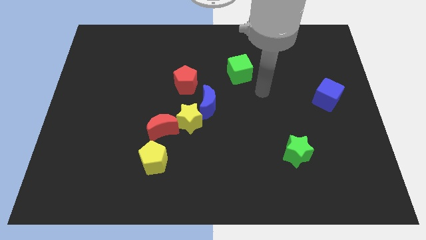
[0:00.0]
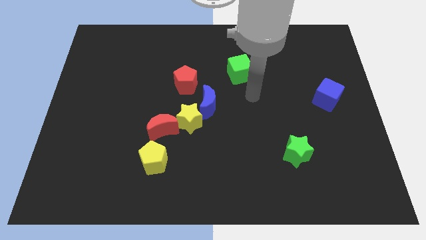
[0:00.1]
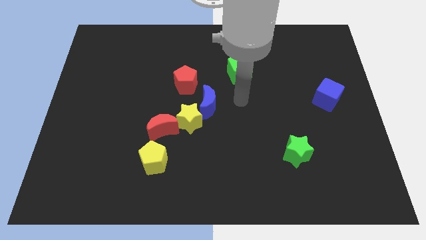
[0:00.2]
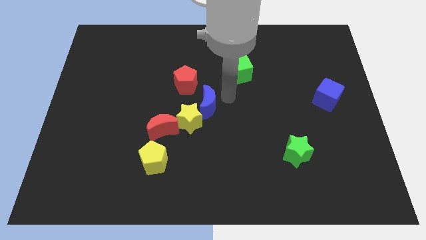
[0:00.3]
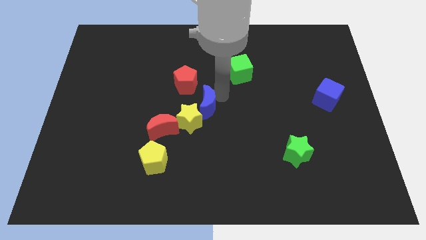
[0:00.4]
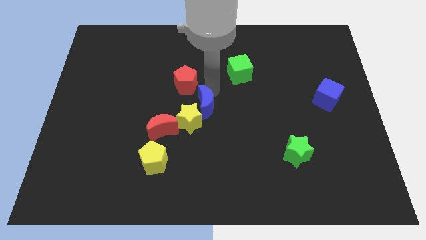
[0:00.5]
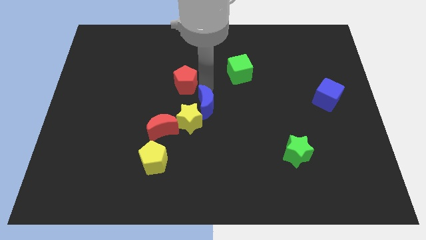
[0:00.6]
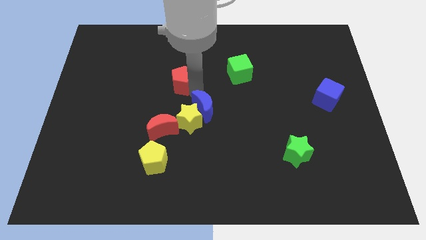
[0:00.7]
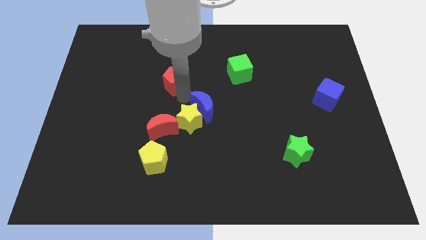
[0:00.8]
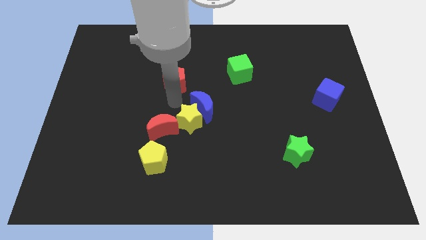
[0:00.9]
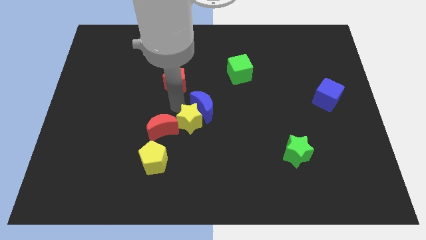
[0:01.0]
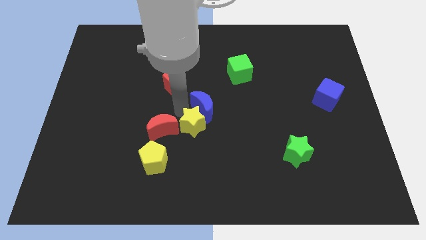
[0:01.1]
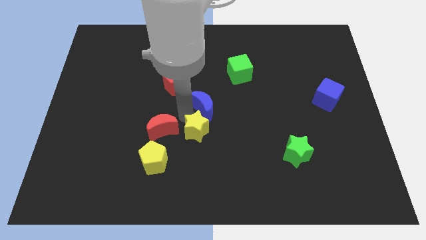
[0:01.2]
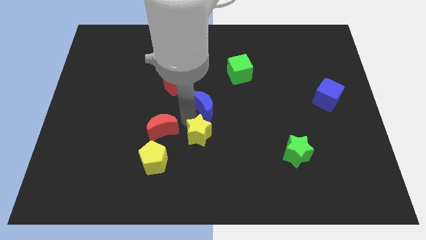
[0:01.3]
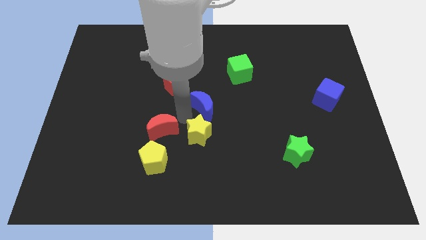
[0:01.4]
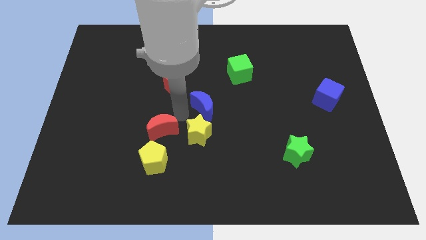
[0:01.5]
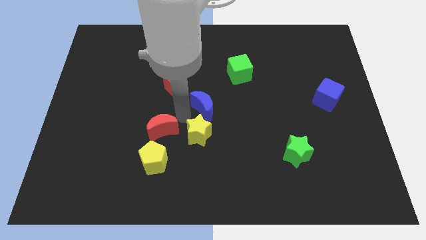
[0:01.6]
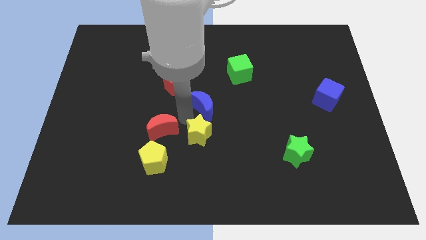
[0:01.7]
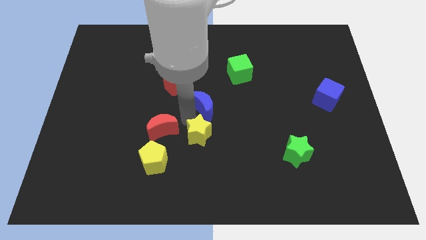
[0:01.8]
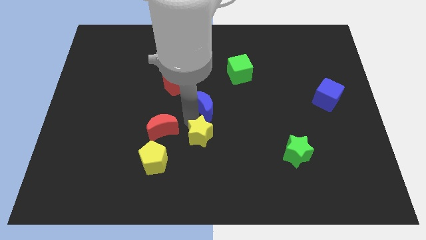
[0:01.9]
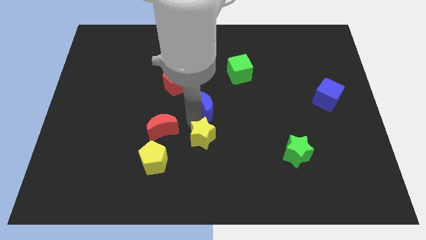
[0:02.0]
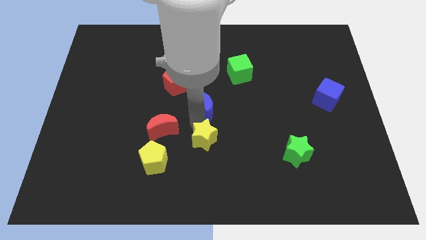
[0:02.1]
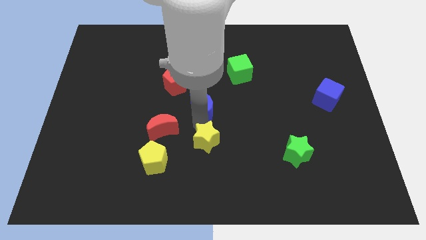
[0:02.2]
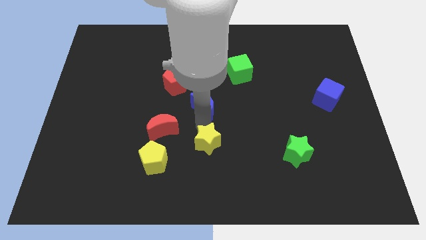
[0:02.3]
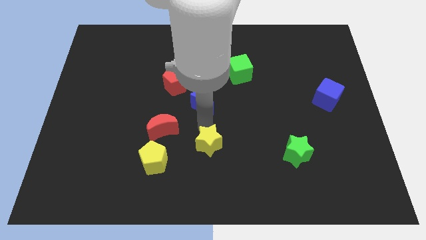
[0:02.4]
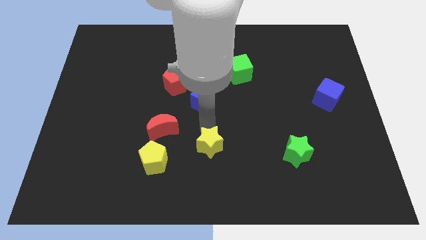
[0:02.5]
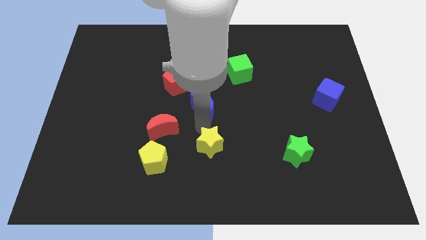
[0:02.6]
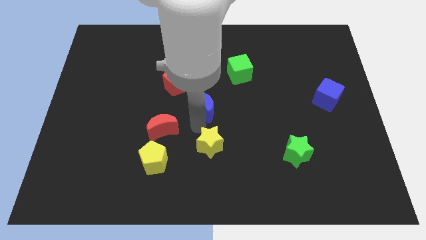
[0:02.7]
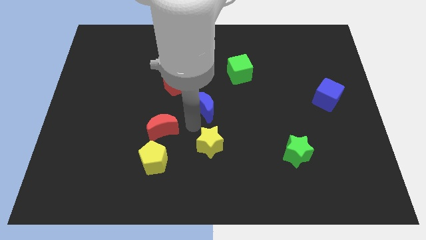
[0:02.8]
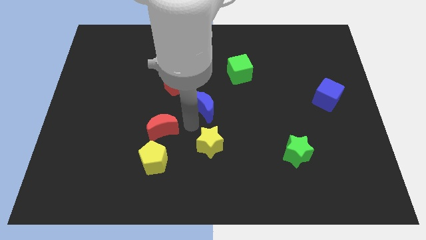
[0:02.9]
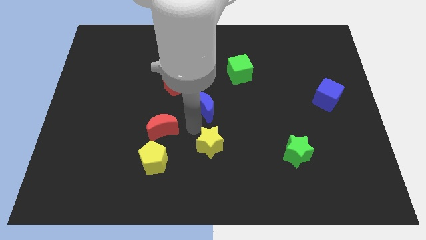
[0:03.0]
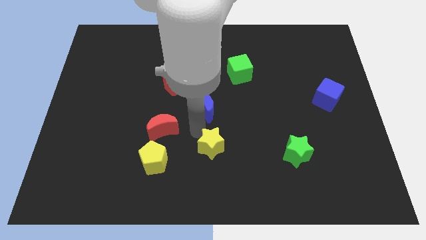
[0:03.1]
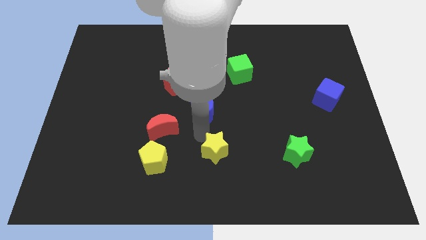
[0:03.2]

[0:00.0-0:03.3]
pull the yellow star apart from the blue moon and red moon

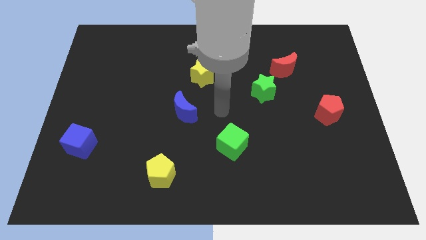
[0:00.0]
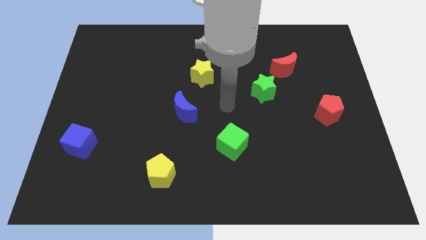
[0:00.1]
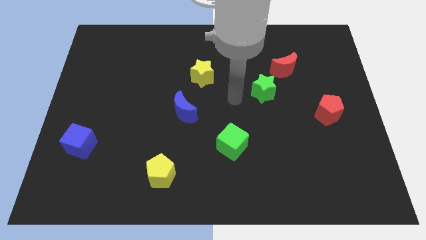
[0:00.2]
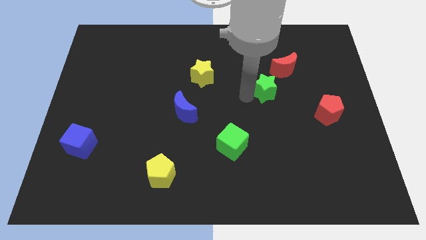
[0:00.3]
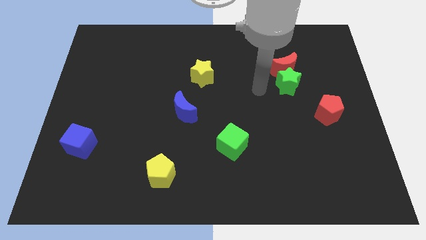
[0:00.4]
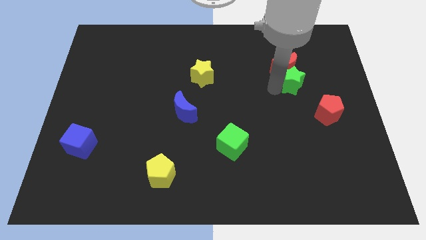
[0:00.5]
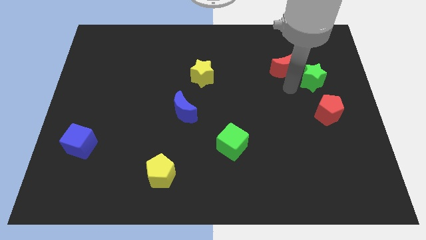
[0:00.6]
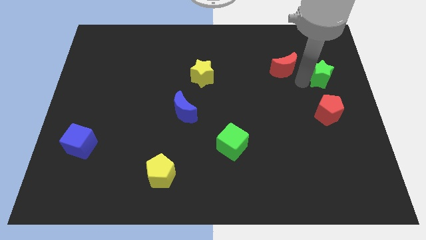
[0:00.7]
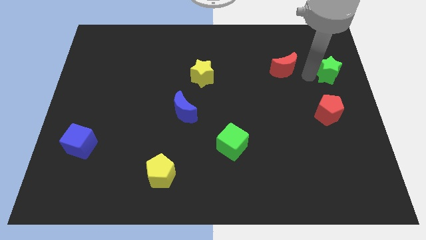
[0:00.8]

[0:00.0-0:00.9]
pull the red moon apart from the green star

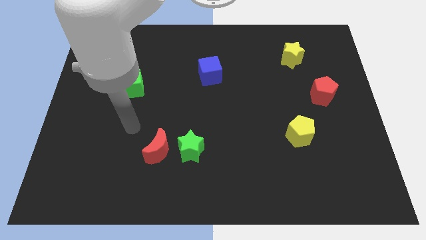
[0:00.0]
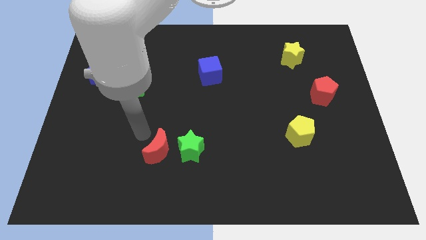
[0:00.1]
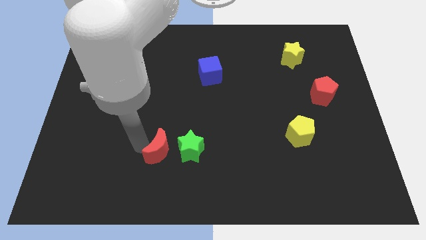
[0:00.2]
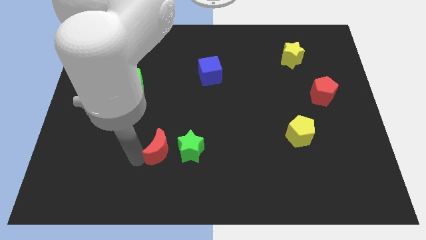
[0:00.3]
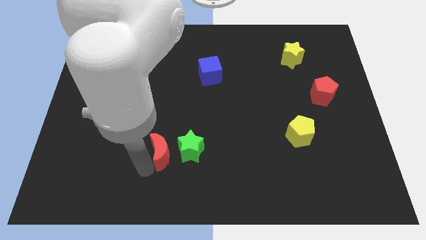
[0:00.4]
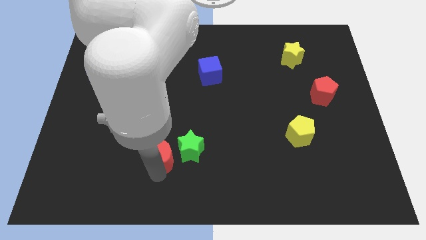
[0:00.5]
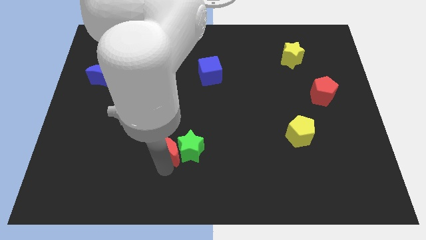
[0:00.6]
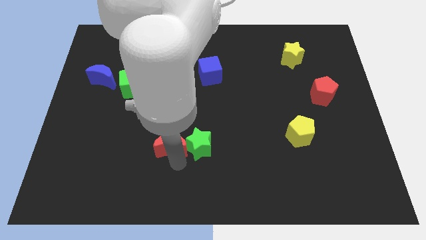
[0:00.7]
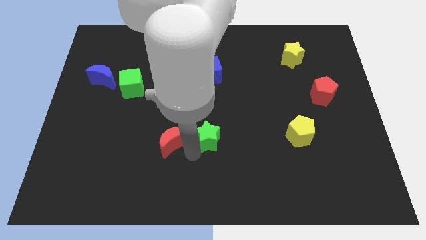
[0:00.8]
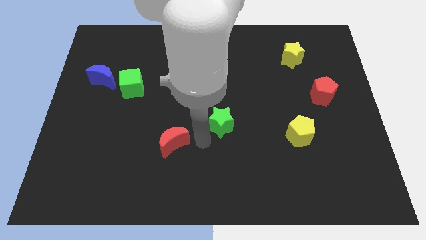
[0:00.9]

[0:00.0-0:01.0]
move the red moon away from the green star

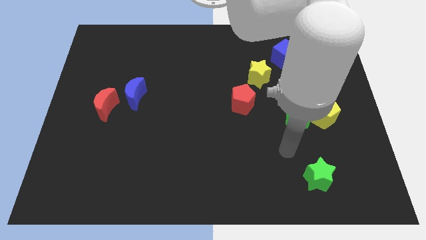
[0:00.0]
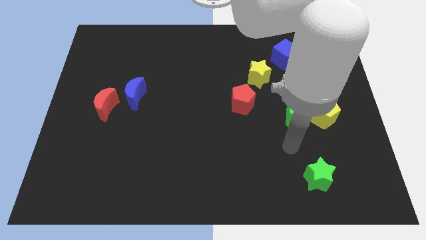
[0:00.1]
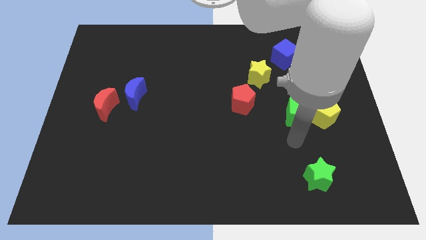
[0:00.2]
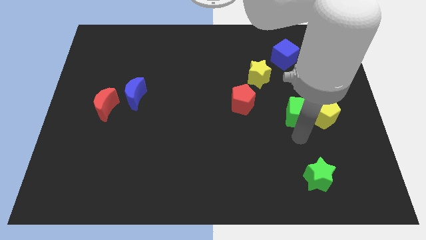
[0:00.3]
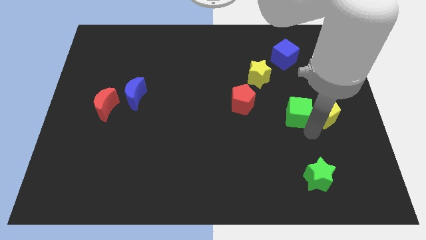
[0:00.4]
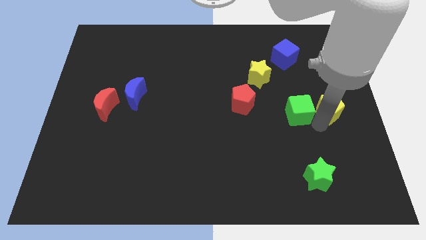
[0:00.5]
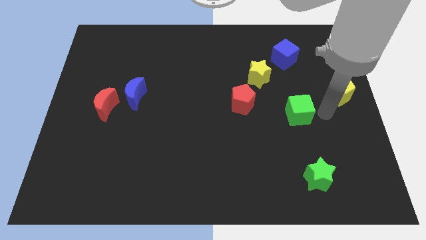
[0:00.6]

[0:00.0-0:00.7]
separate the green cube from the yellow pentagon

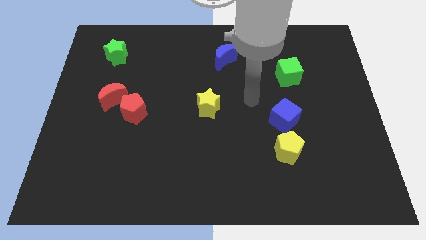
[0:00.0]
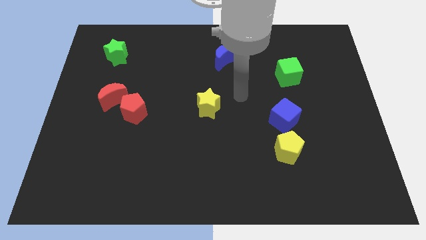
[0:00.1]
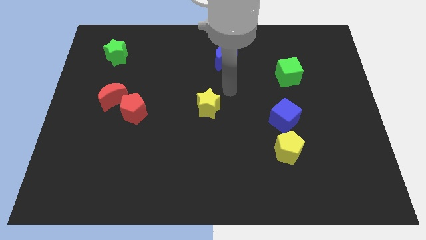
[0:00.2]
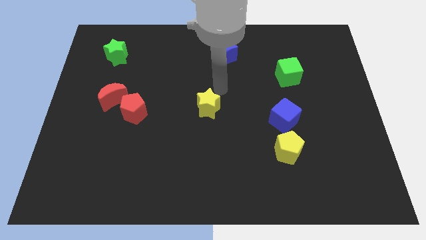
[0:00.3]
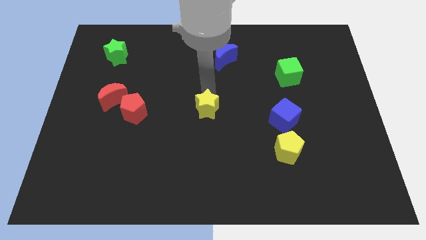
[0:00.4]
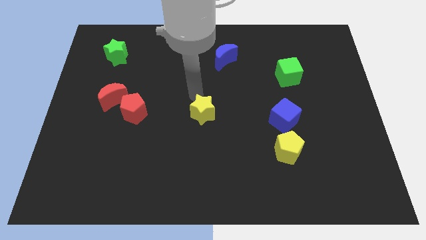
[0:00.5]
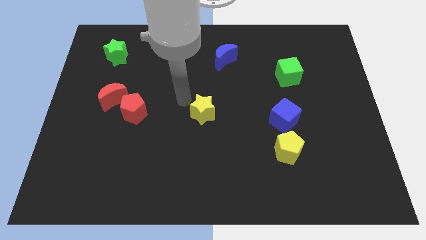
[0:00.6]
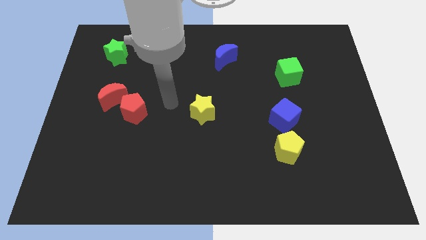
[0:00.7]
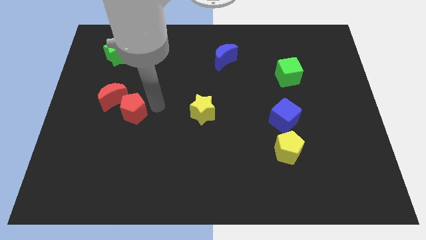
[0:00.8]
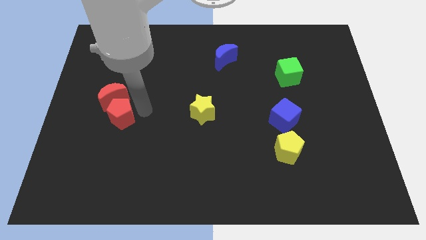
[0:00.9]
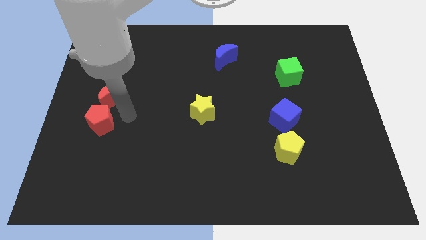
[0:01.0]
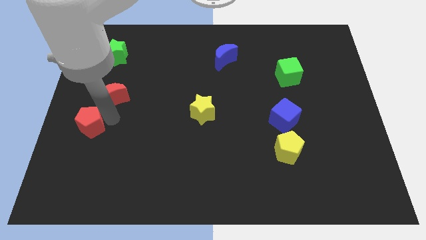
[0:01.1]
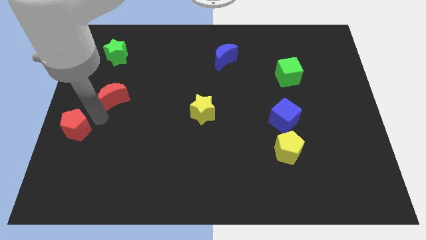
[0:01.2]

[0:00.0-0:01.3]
pull the red moon apart from the red pentagon

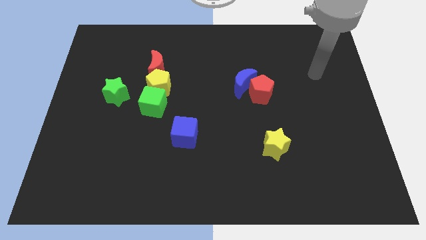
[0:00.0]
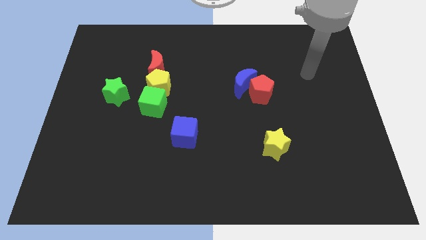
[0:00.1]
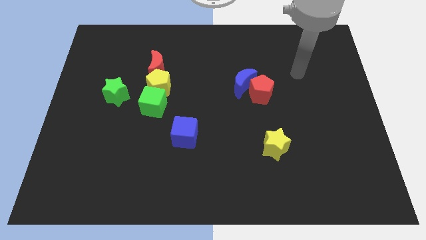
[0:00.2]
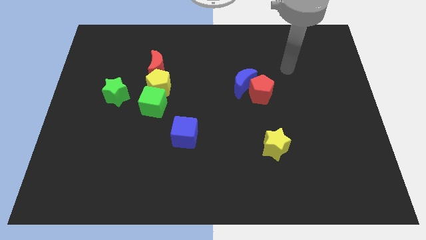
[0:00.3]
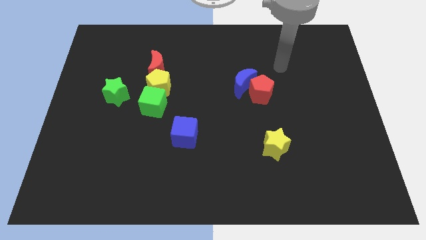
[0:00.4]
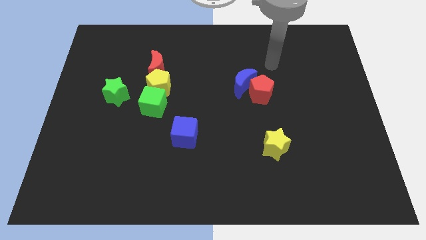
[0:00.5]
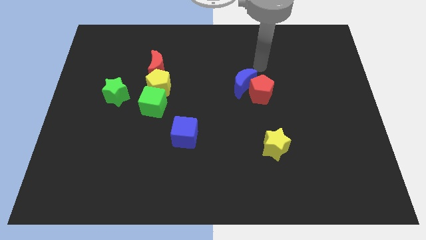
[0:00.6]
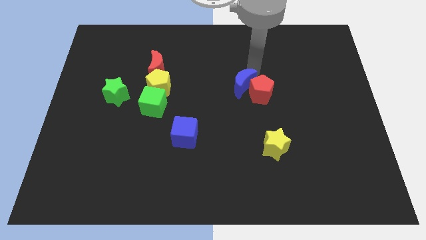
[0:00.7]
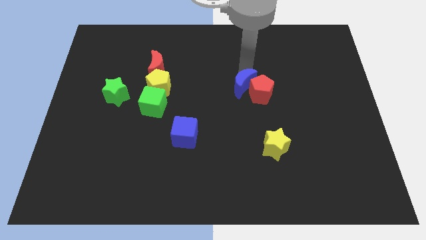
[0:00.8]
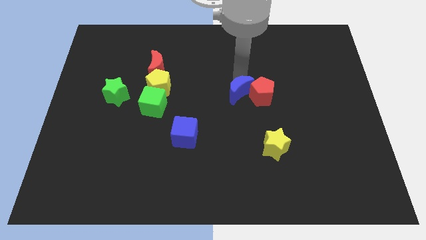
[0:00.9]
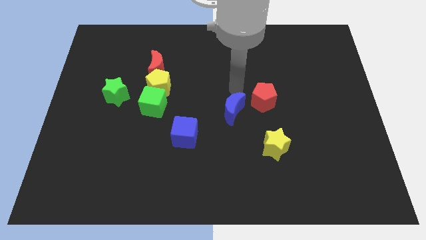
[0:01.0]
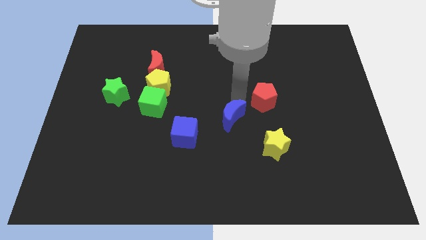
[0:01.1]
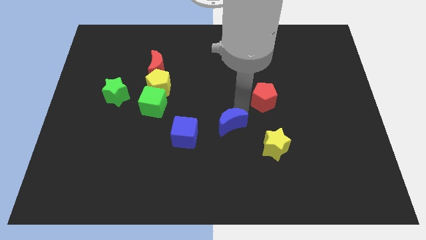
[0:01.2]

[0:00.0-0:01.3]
pull the red pentagon apart from the blue moon

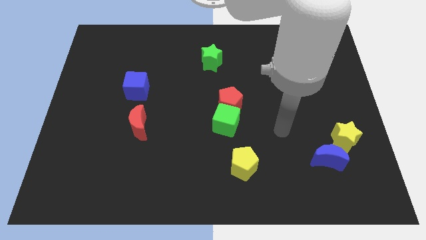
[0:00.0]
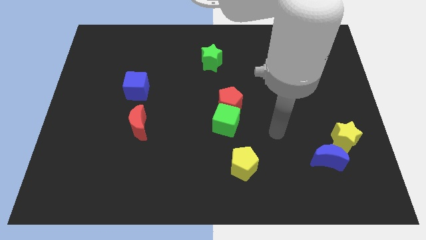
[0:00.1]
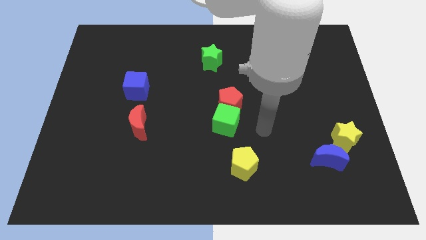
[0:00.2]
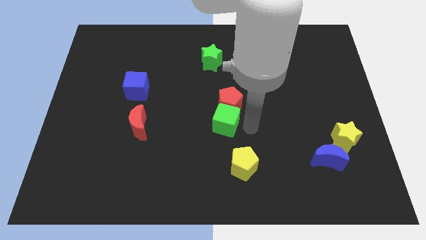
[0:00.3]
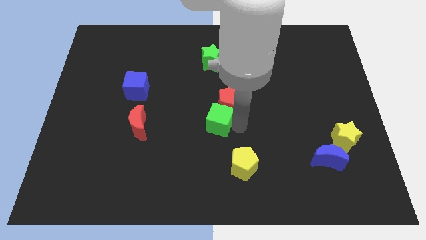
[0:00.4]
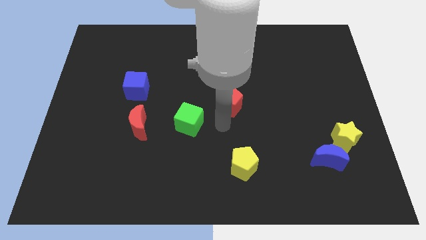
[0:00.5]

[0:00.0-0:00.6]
move the red pentagon away from the green cube

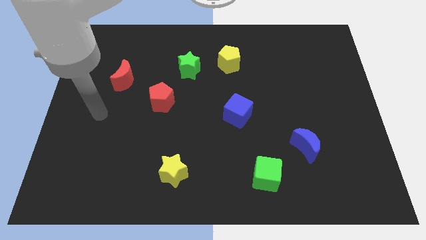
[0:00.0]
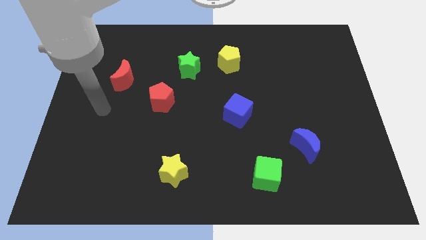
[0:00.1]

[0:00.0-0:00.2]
separate the green star from the yellow pentagon
